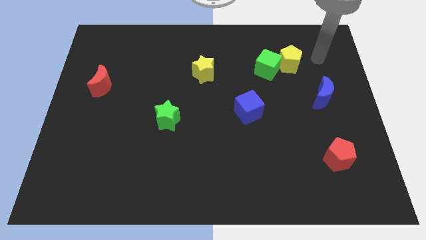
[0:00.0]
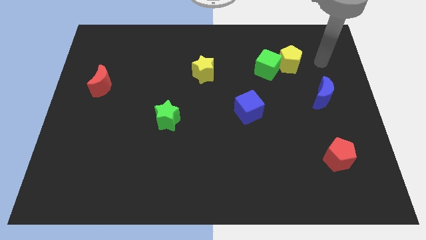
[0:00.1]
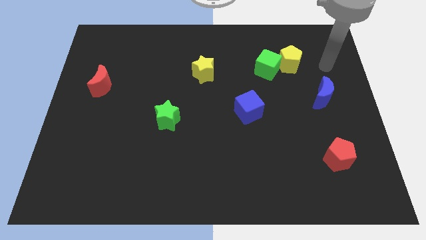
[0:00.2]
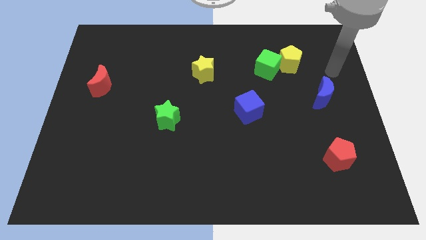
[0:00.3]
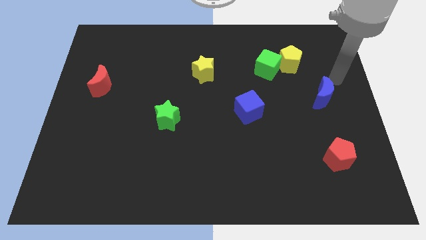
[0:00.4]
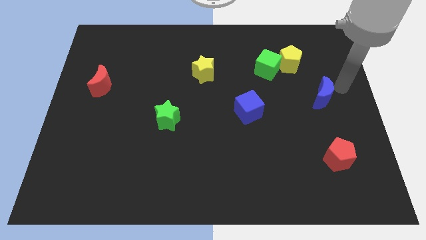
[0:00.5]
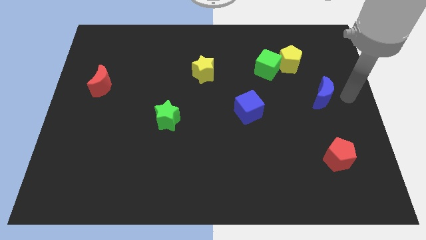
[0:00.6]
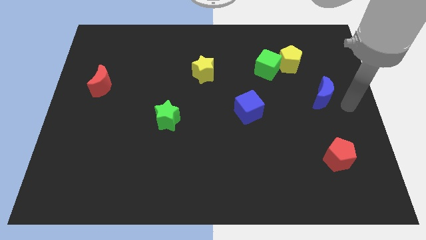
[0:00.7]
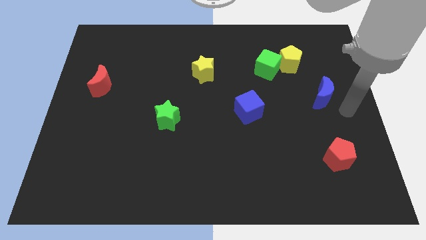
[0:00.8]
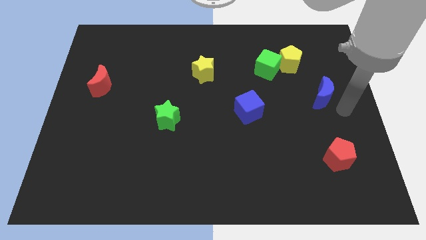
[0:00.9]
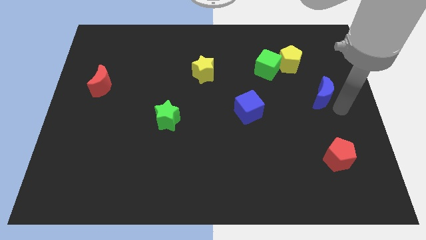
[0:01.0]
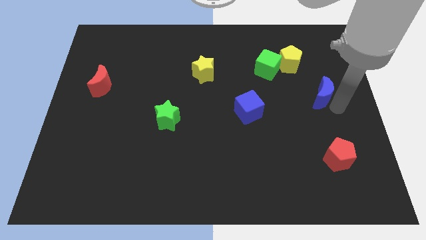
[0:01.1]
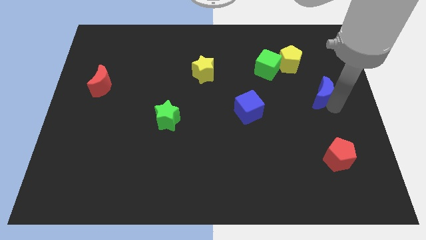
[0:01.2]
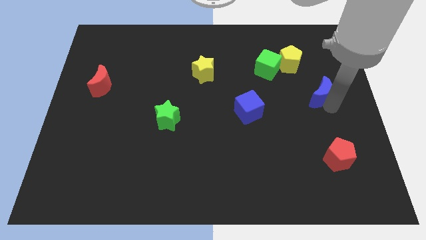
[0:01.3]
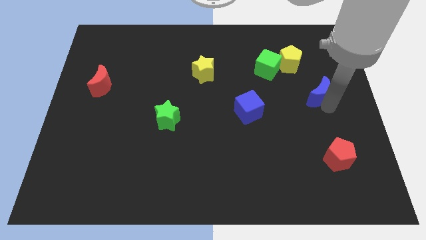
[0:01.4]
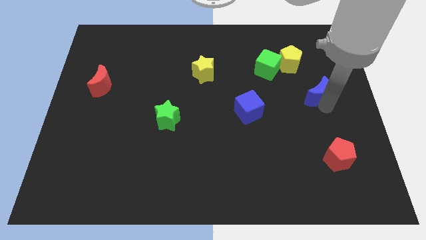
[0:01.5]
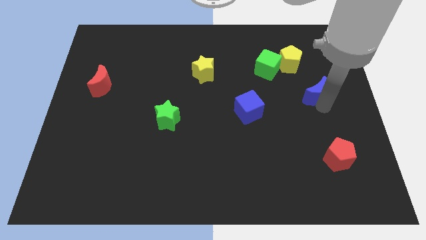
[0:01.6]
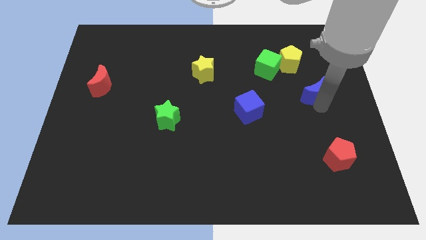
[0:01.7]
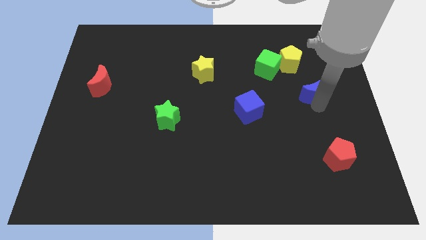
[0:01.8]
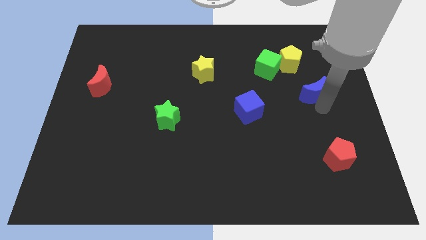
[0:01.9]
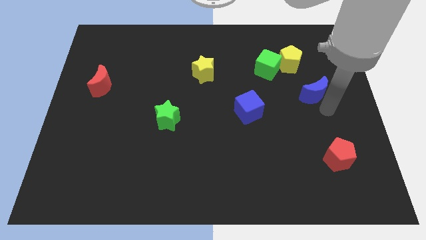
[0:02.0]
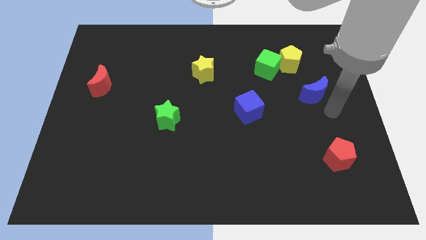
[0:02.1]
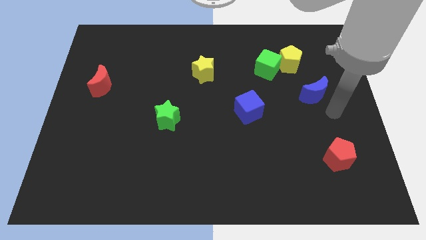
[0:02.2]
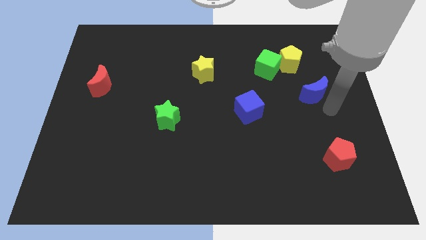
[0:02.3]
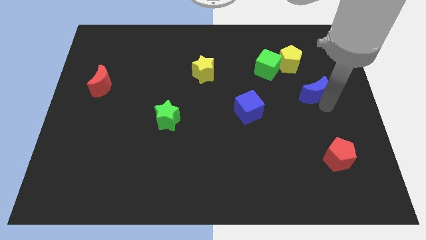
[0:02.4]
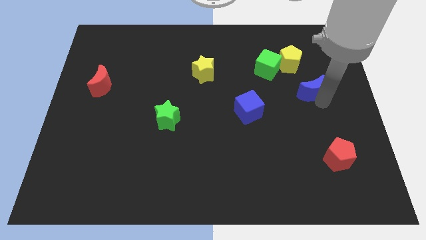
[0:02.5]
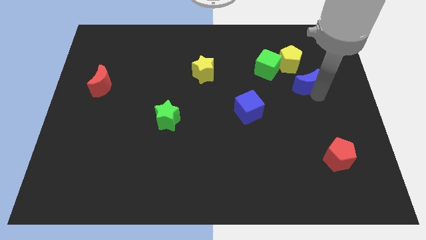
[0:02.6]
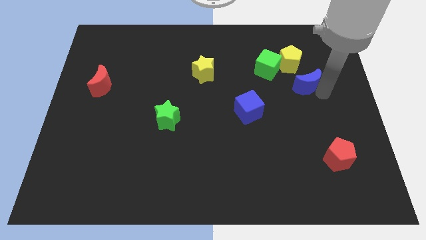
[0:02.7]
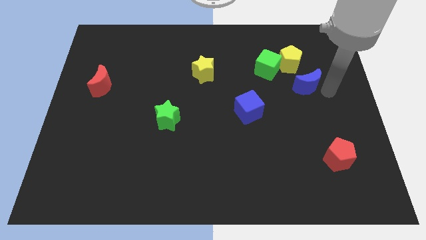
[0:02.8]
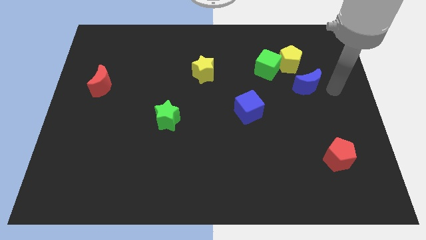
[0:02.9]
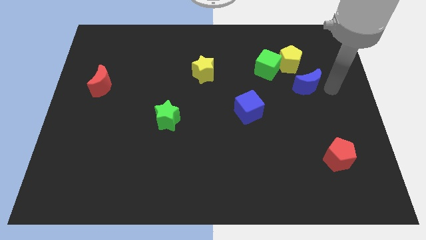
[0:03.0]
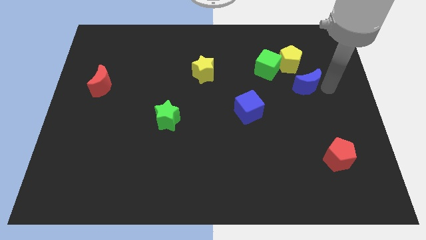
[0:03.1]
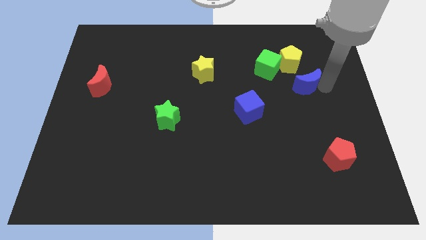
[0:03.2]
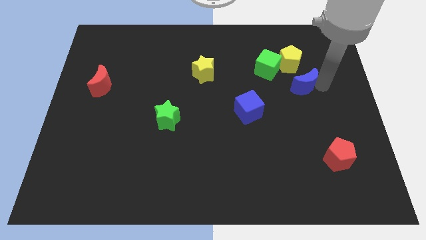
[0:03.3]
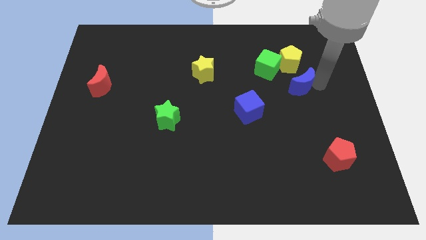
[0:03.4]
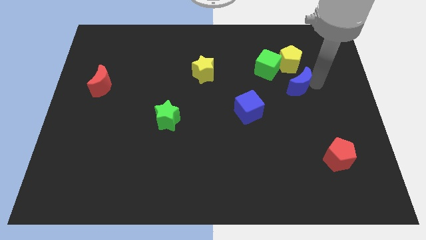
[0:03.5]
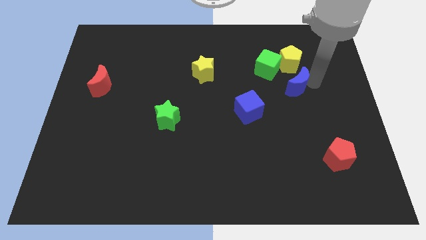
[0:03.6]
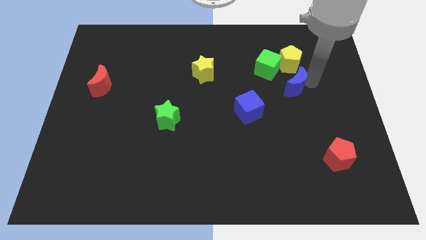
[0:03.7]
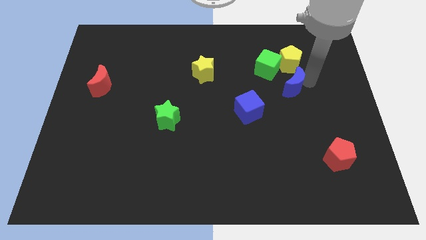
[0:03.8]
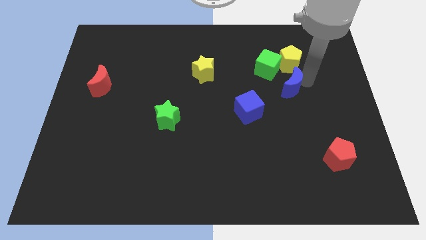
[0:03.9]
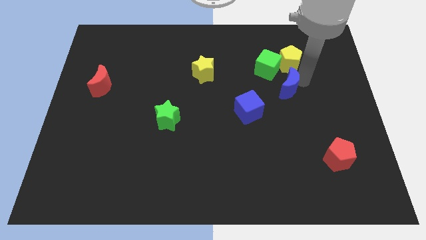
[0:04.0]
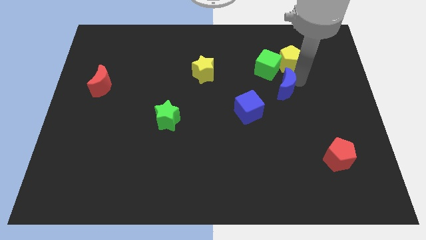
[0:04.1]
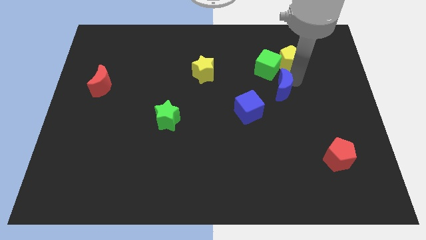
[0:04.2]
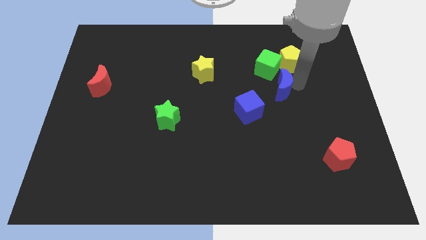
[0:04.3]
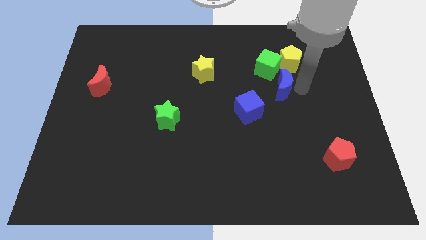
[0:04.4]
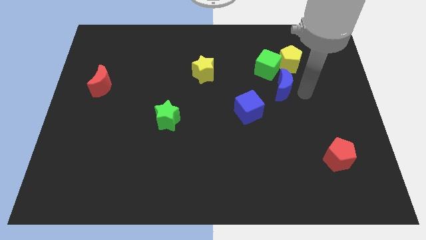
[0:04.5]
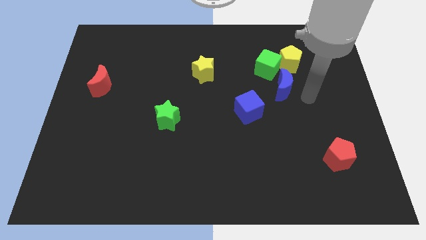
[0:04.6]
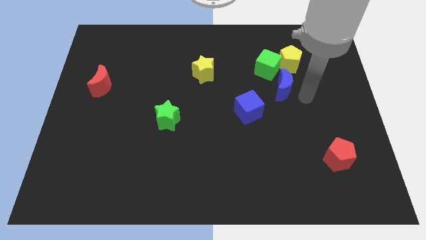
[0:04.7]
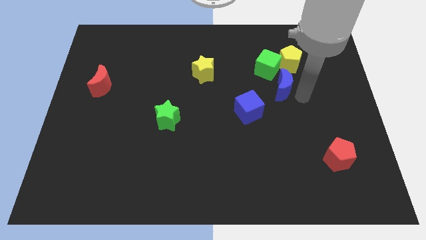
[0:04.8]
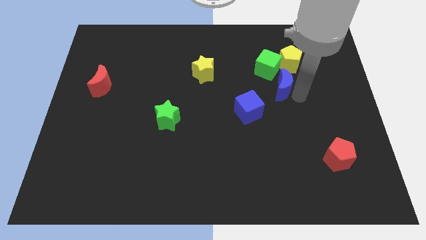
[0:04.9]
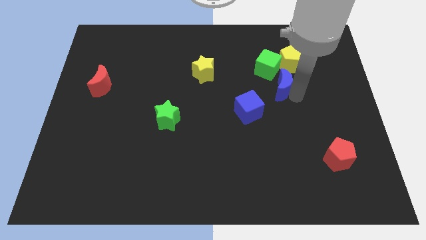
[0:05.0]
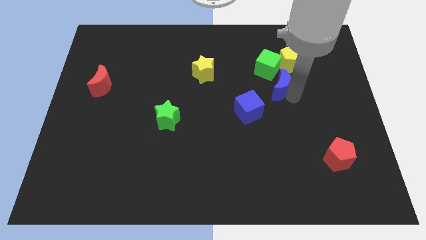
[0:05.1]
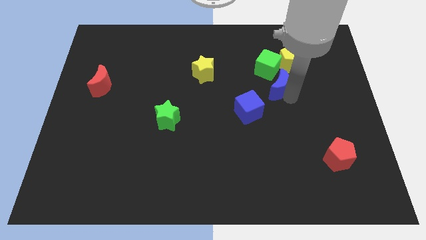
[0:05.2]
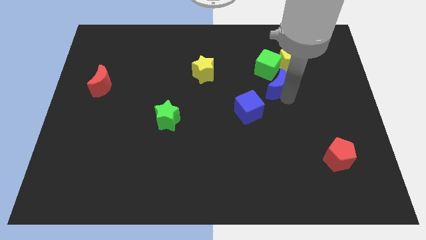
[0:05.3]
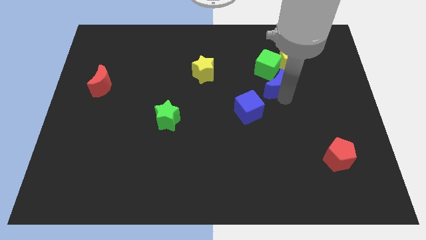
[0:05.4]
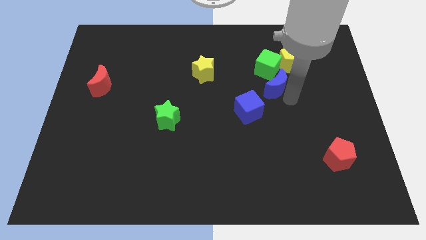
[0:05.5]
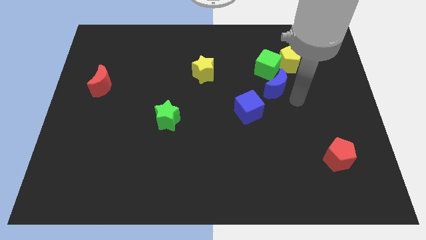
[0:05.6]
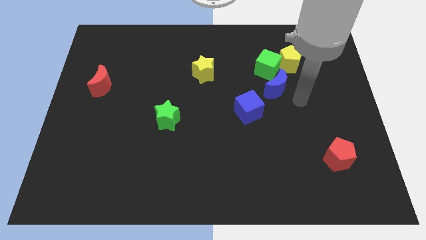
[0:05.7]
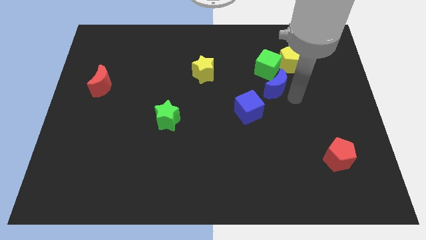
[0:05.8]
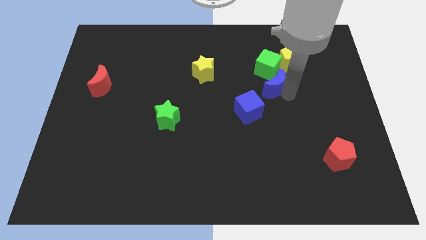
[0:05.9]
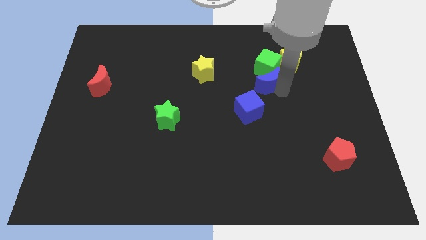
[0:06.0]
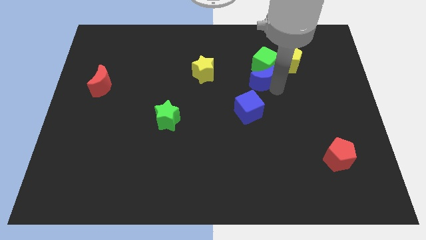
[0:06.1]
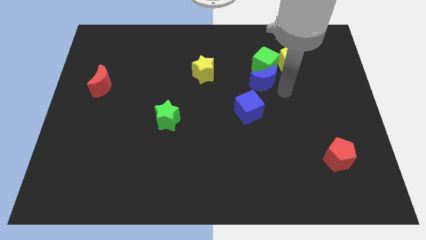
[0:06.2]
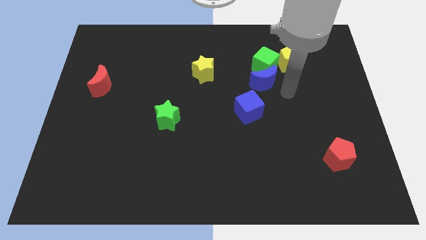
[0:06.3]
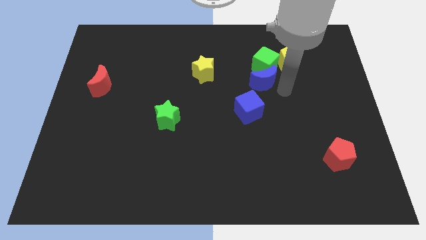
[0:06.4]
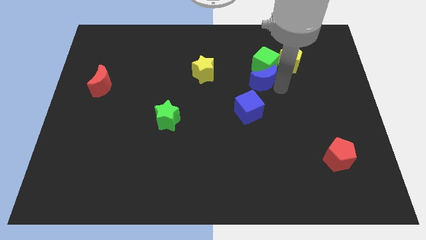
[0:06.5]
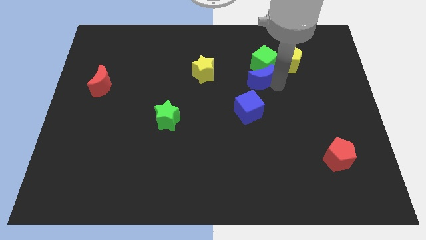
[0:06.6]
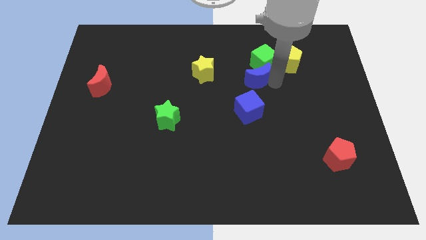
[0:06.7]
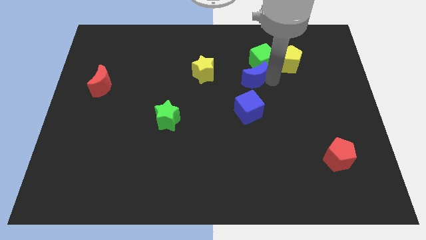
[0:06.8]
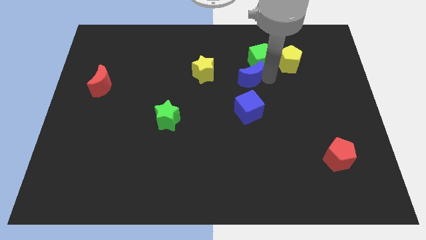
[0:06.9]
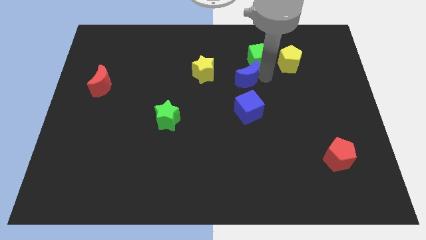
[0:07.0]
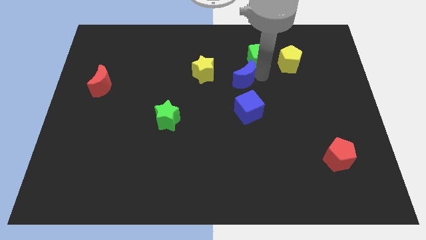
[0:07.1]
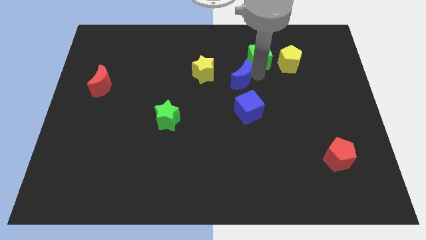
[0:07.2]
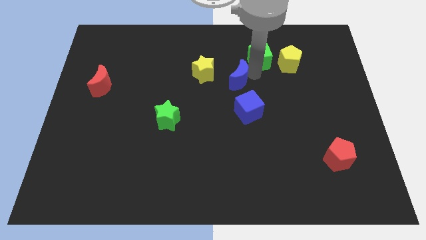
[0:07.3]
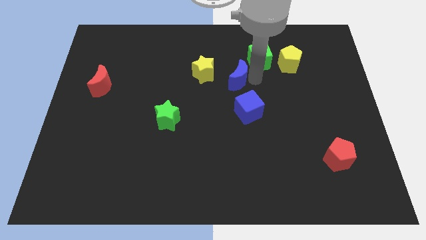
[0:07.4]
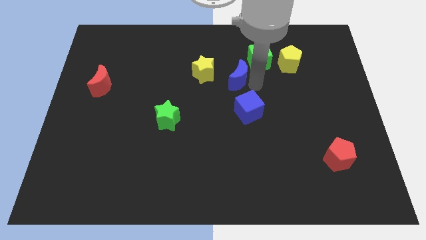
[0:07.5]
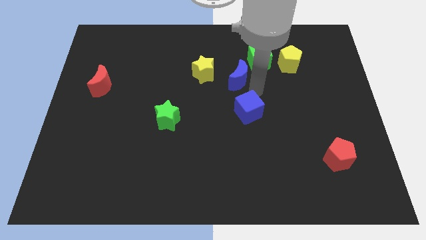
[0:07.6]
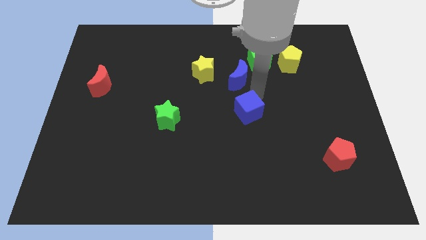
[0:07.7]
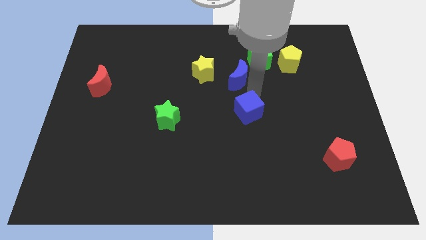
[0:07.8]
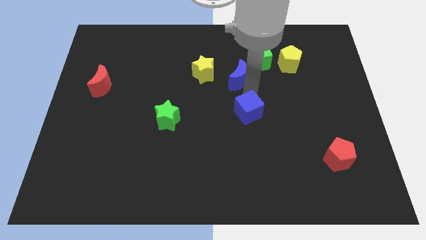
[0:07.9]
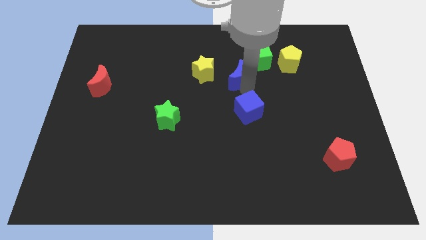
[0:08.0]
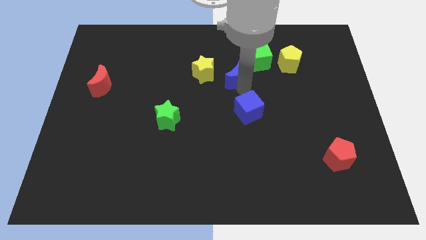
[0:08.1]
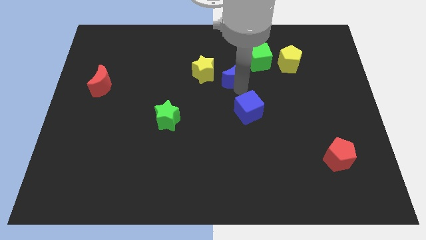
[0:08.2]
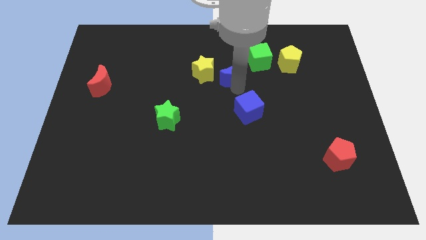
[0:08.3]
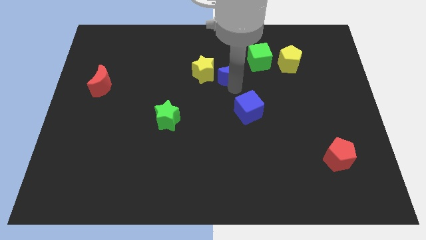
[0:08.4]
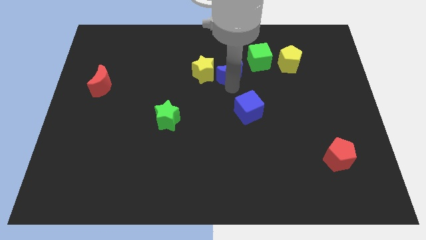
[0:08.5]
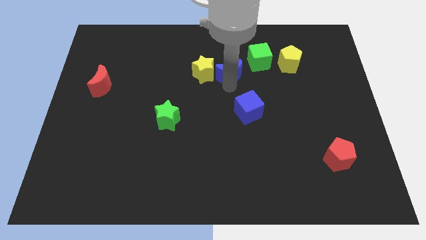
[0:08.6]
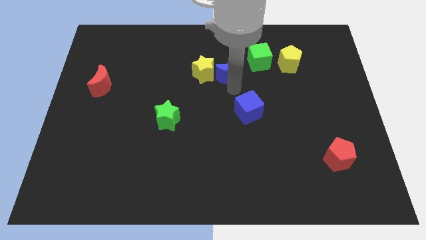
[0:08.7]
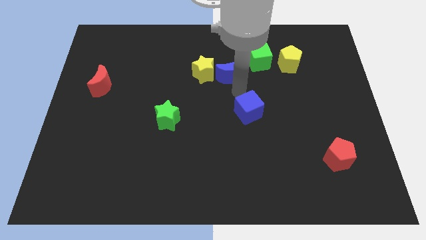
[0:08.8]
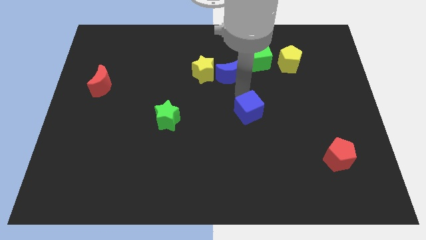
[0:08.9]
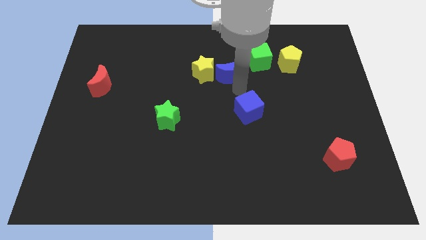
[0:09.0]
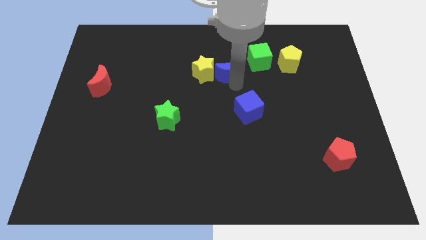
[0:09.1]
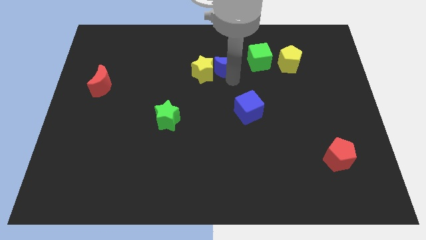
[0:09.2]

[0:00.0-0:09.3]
move the blue moon left of the green cube
